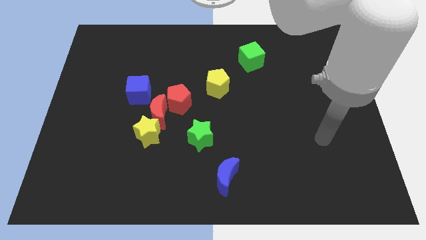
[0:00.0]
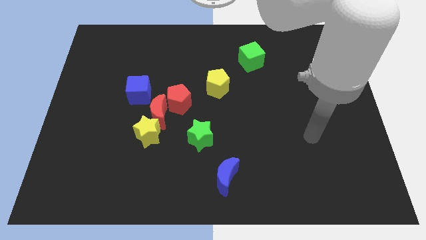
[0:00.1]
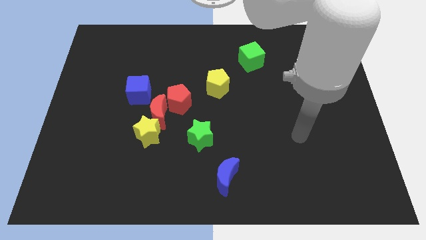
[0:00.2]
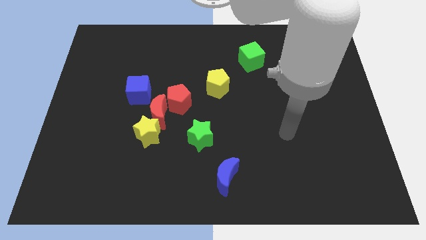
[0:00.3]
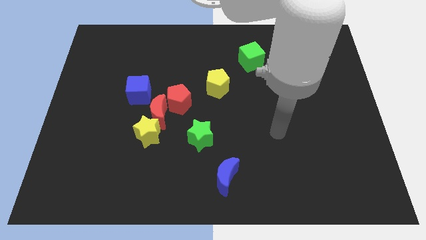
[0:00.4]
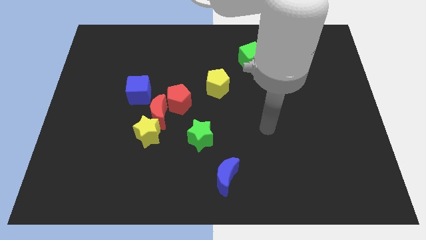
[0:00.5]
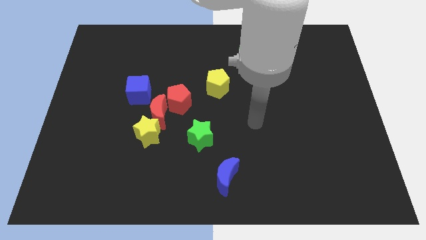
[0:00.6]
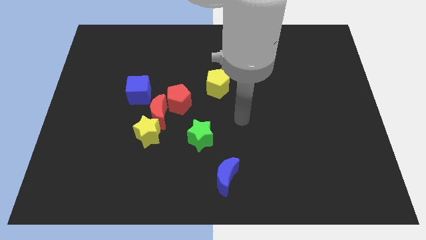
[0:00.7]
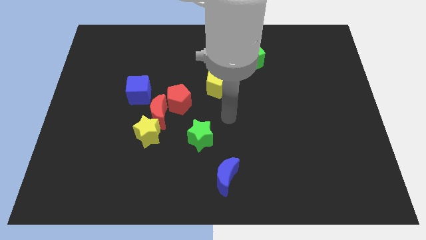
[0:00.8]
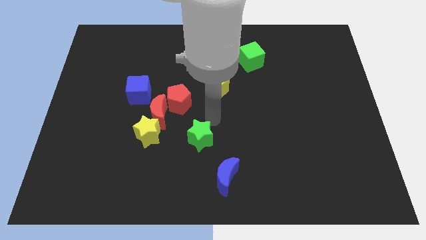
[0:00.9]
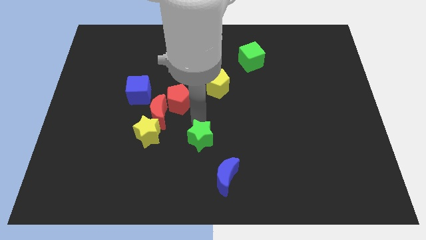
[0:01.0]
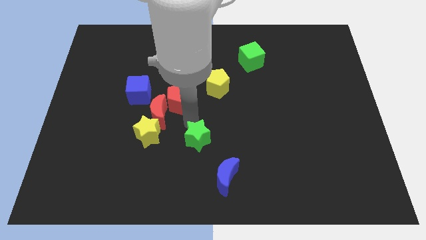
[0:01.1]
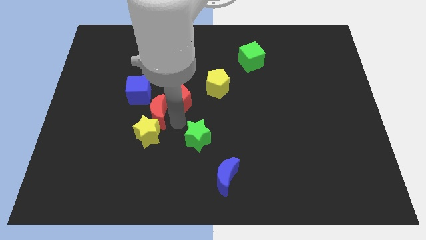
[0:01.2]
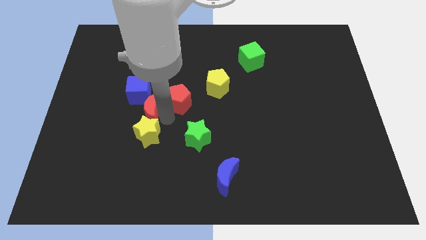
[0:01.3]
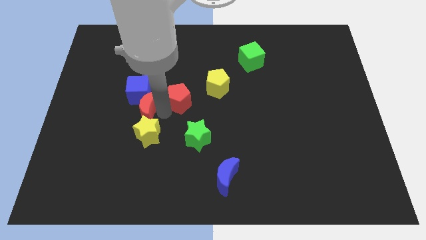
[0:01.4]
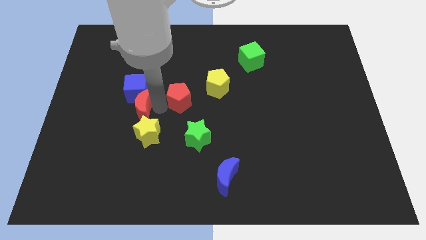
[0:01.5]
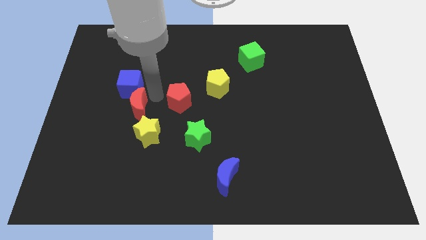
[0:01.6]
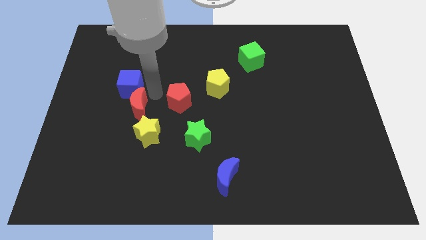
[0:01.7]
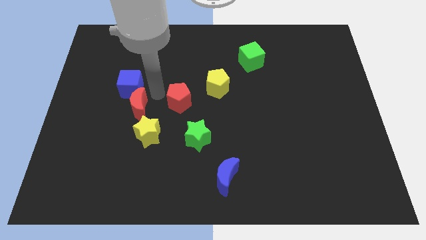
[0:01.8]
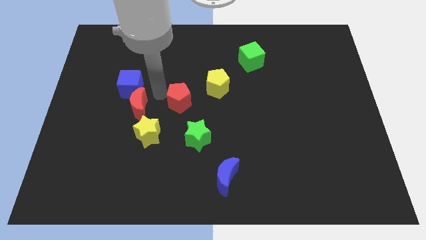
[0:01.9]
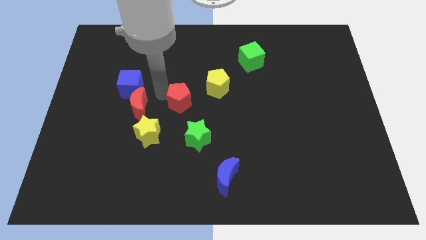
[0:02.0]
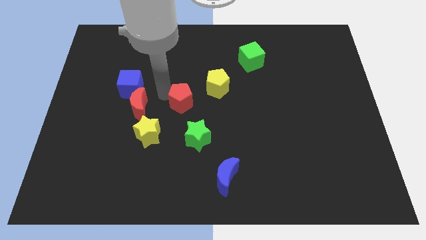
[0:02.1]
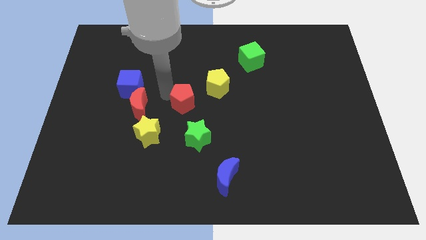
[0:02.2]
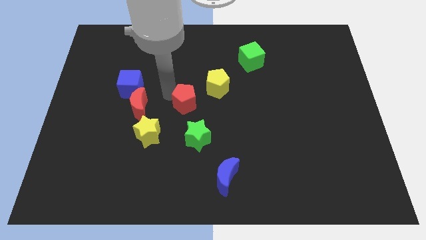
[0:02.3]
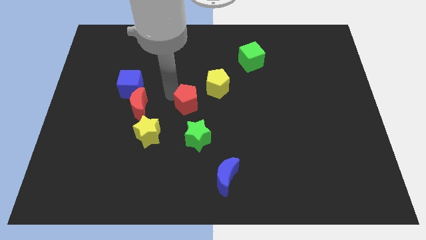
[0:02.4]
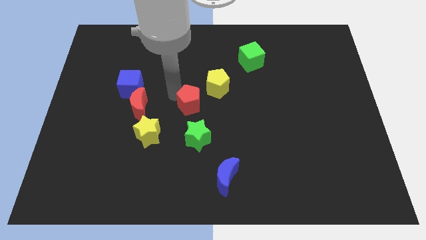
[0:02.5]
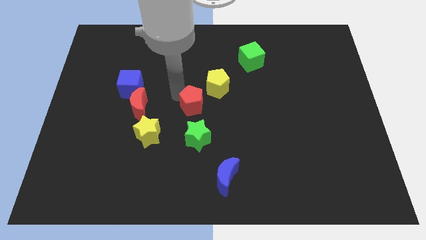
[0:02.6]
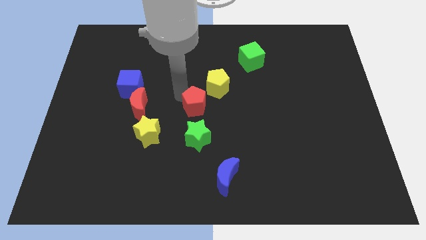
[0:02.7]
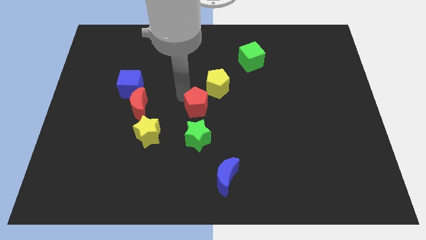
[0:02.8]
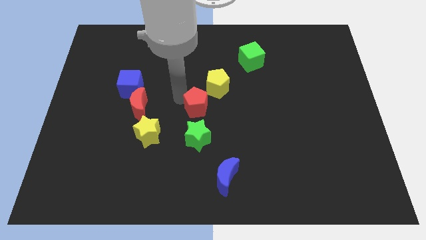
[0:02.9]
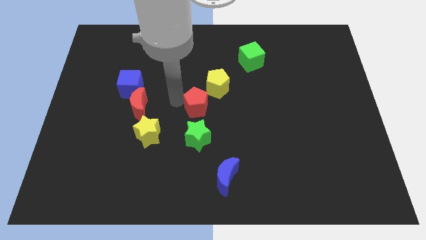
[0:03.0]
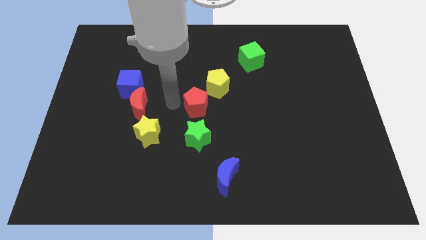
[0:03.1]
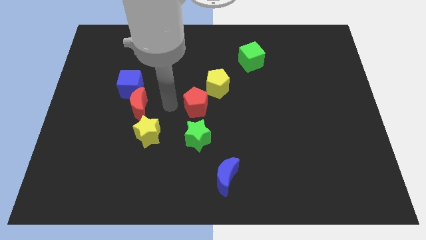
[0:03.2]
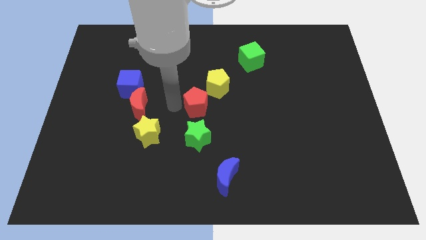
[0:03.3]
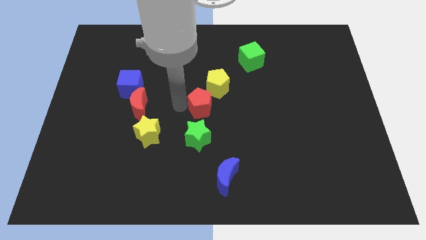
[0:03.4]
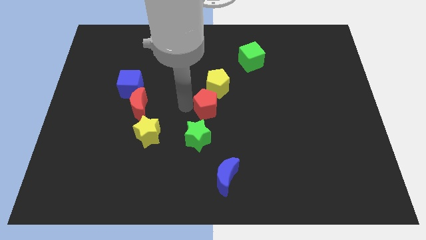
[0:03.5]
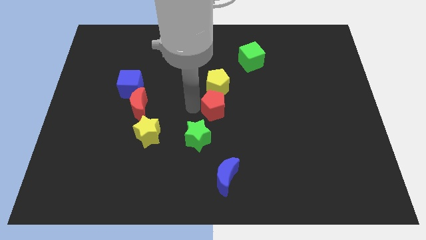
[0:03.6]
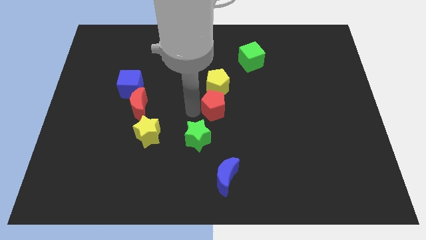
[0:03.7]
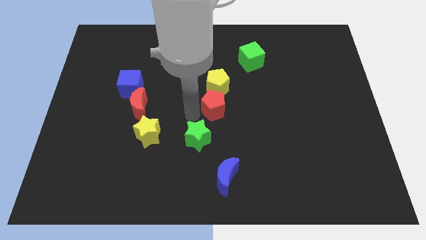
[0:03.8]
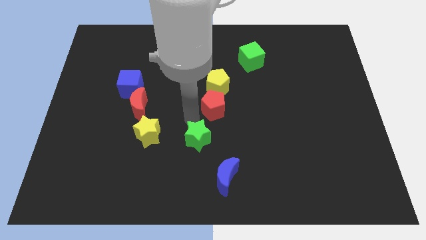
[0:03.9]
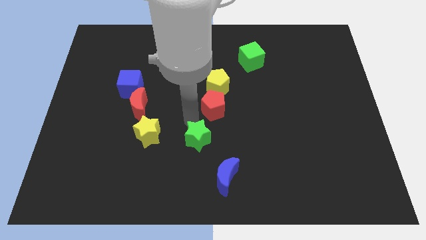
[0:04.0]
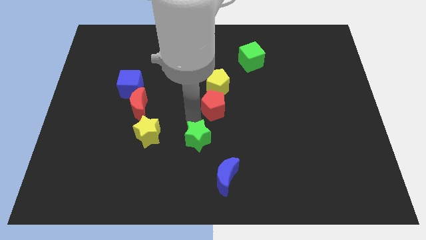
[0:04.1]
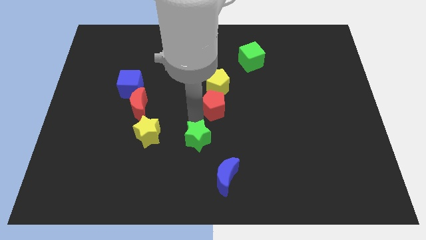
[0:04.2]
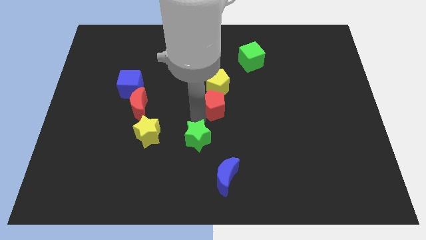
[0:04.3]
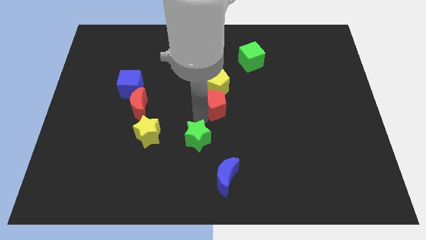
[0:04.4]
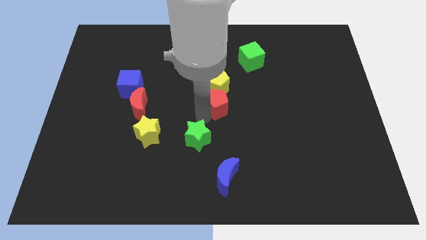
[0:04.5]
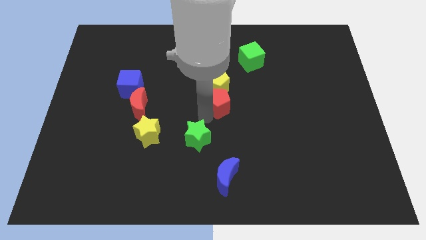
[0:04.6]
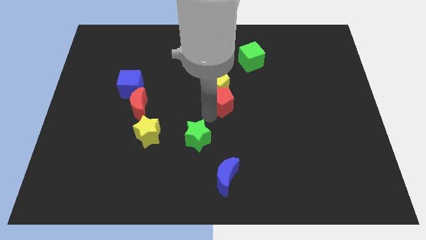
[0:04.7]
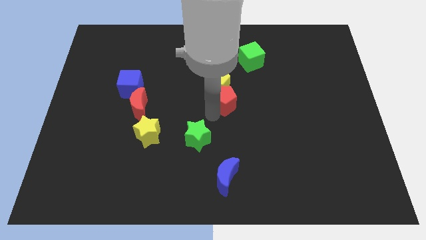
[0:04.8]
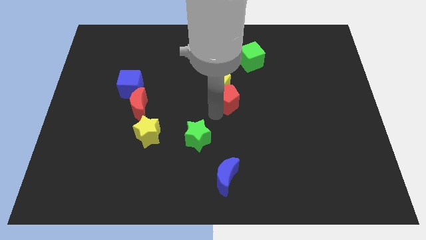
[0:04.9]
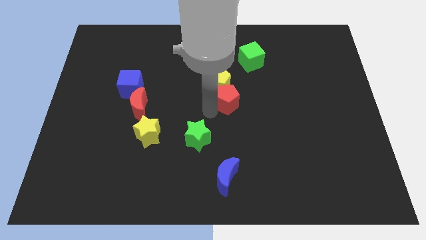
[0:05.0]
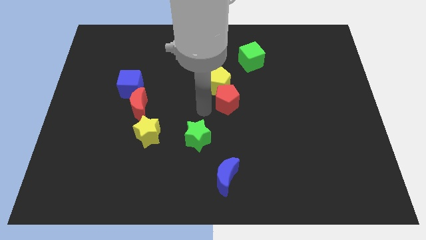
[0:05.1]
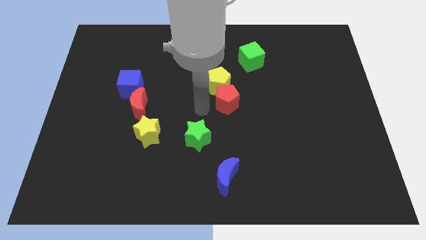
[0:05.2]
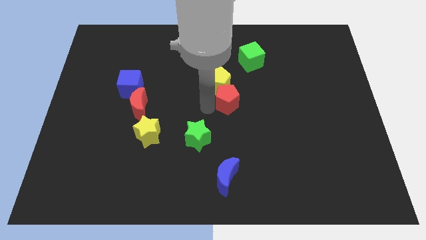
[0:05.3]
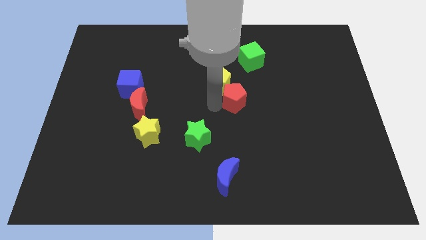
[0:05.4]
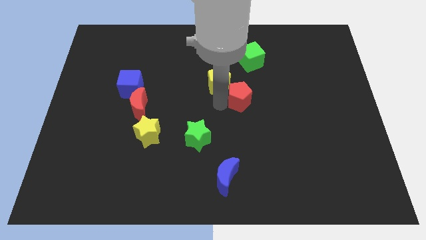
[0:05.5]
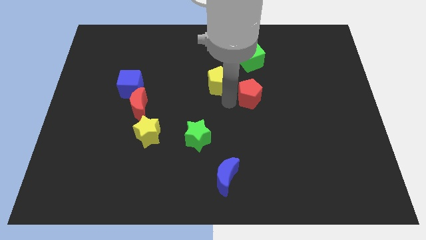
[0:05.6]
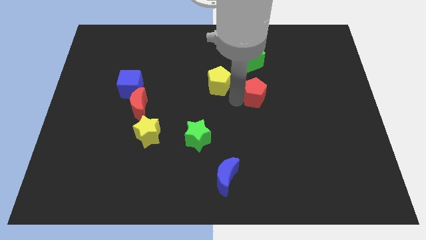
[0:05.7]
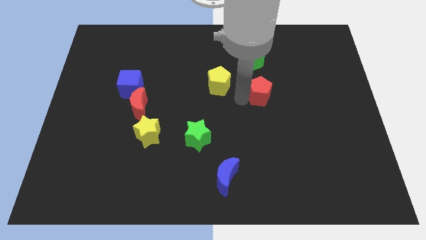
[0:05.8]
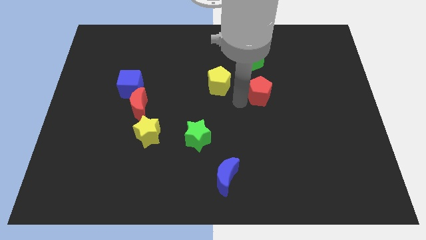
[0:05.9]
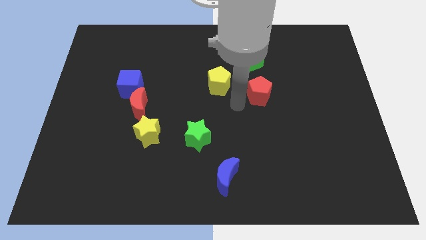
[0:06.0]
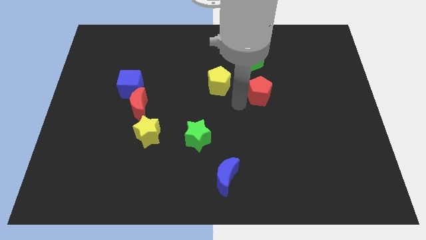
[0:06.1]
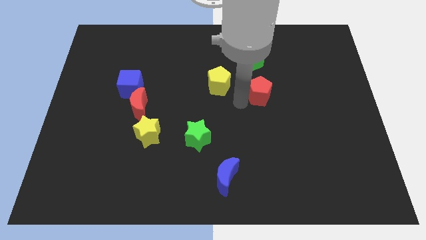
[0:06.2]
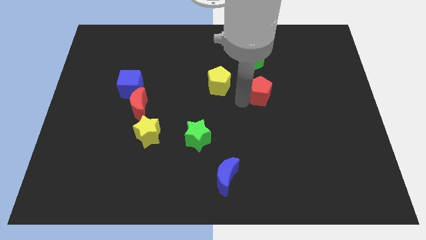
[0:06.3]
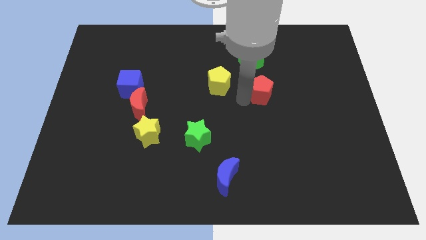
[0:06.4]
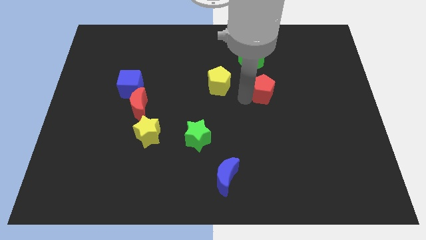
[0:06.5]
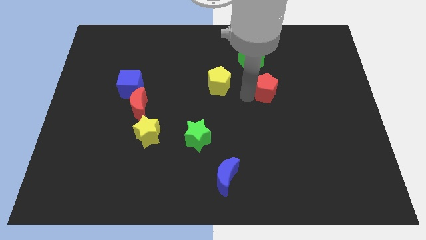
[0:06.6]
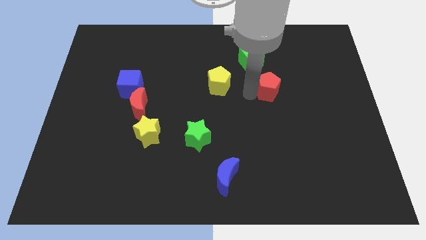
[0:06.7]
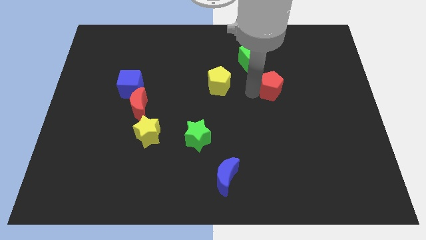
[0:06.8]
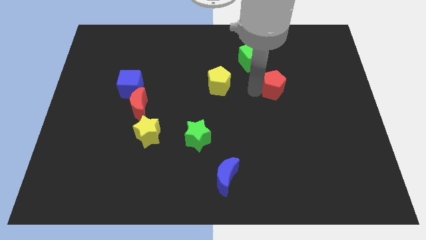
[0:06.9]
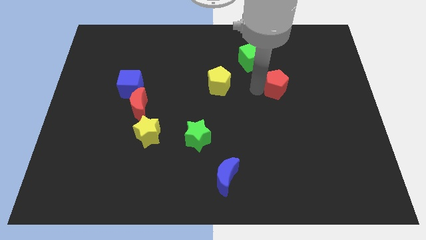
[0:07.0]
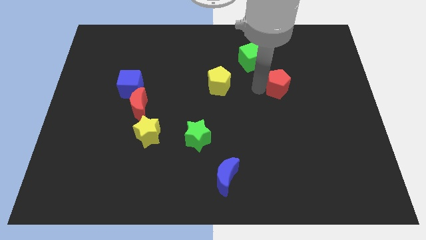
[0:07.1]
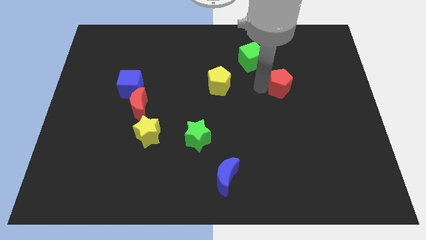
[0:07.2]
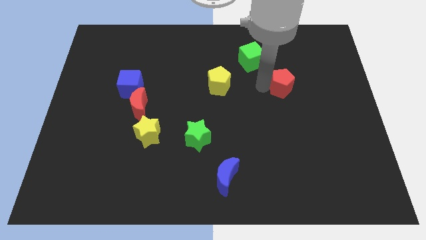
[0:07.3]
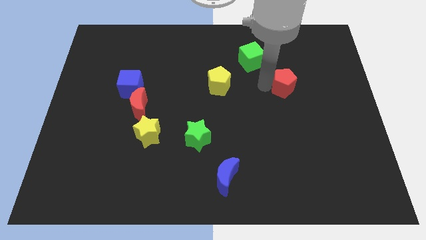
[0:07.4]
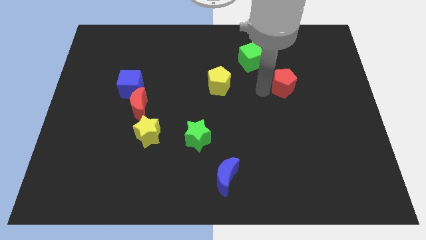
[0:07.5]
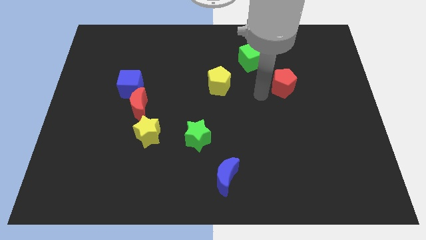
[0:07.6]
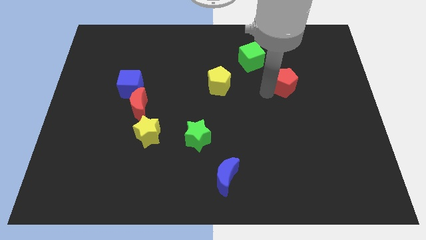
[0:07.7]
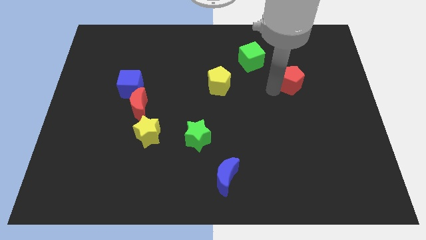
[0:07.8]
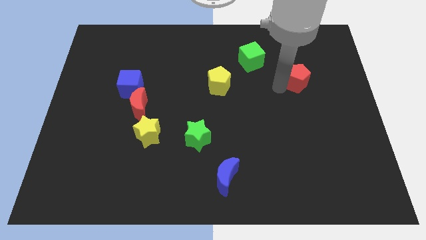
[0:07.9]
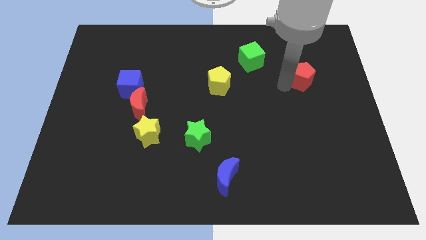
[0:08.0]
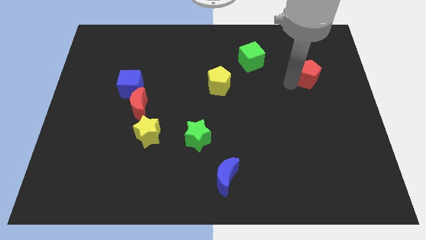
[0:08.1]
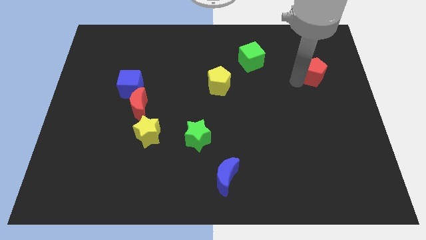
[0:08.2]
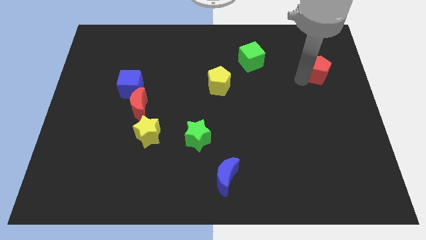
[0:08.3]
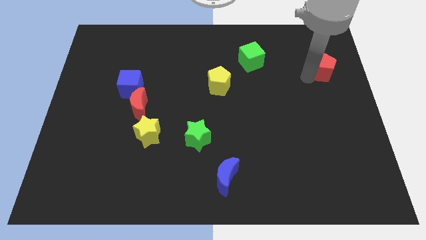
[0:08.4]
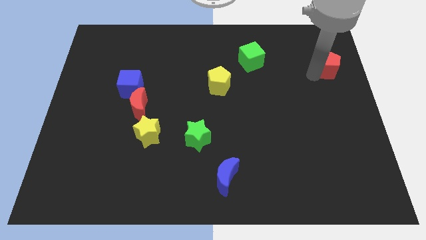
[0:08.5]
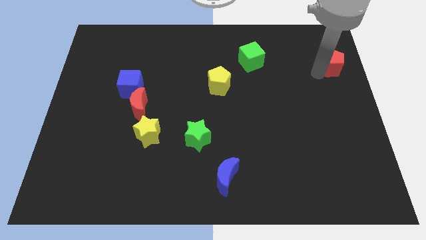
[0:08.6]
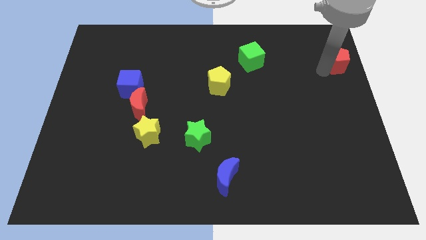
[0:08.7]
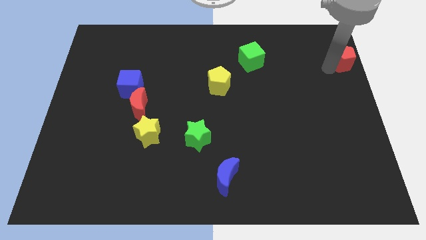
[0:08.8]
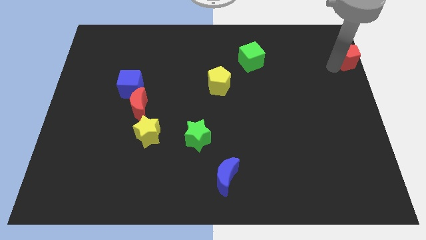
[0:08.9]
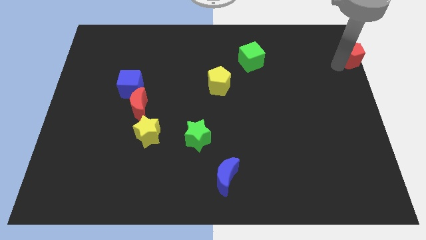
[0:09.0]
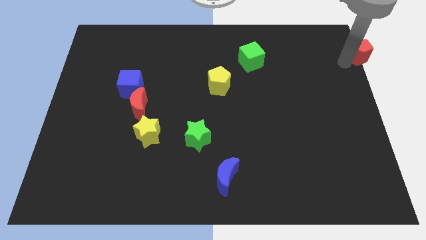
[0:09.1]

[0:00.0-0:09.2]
push the red pentagon to the top right
